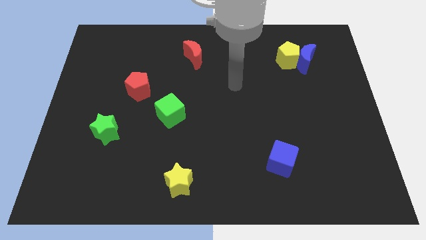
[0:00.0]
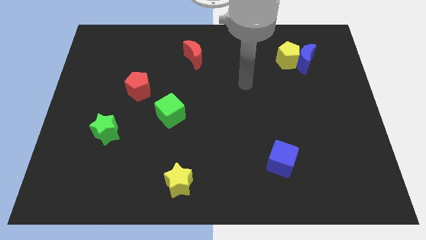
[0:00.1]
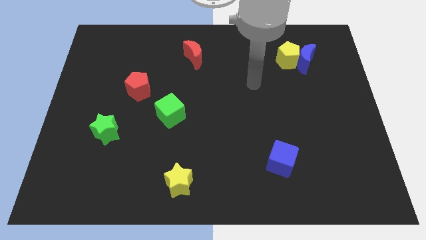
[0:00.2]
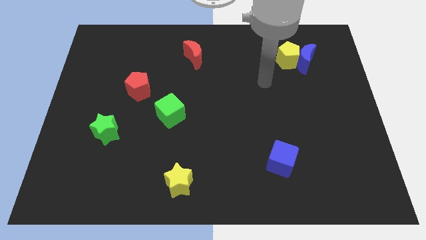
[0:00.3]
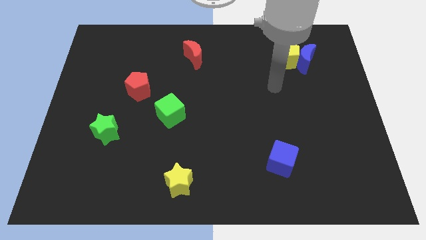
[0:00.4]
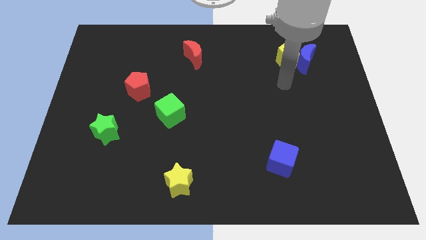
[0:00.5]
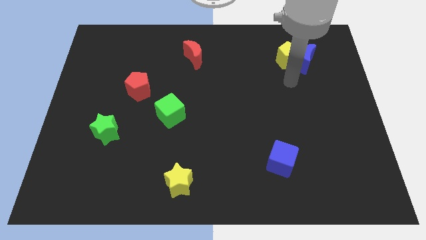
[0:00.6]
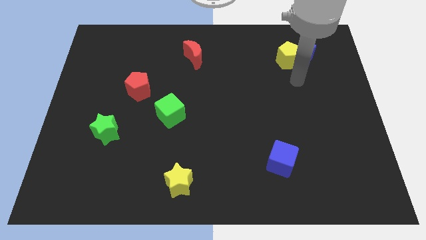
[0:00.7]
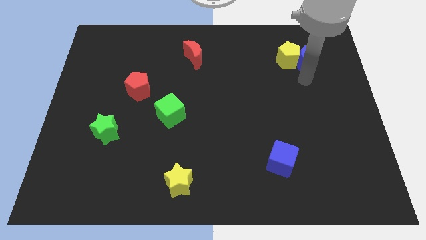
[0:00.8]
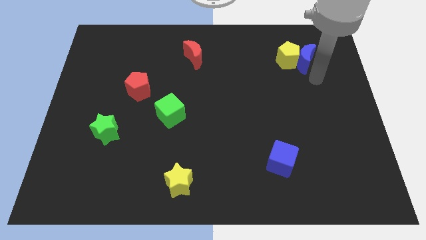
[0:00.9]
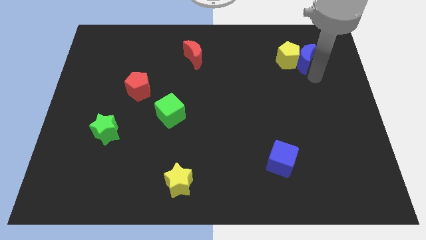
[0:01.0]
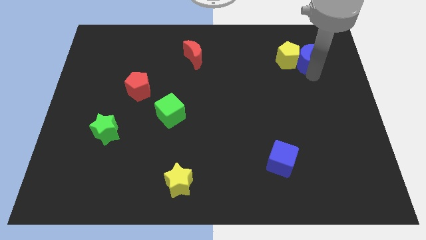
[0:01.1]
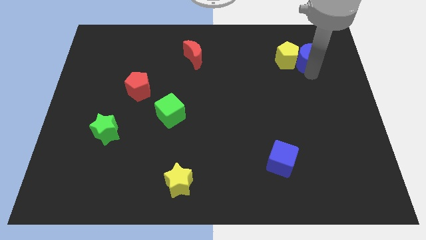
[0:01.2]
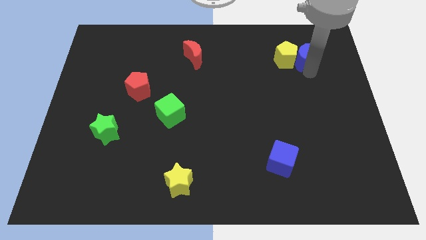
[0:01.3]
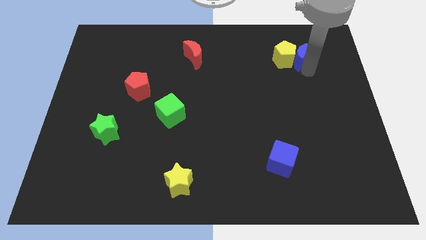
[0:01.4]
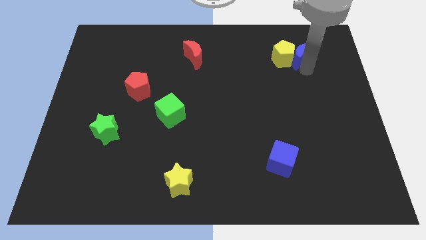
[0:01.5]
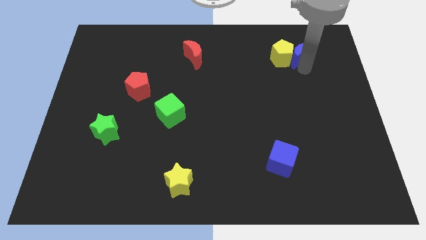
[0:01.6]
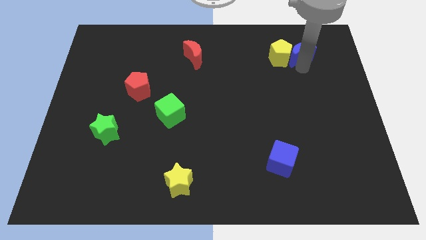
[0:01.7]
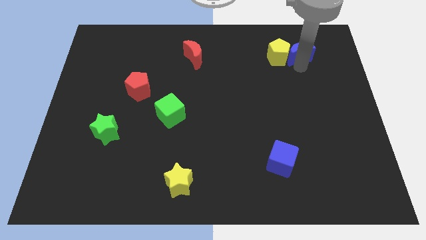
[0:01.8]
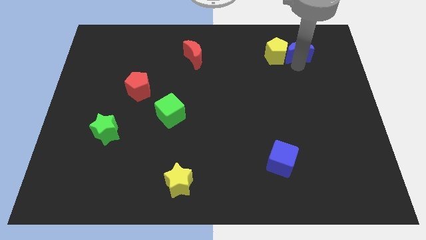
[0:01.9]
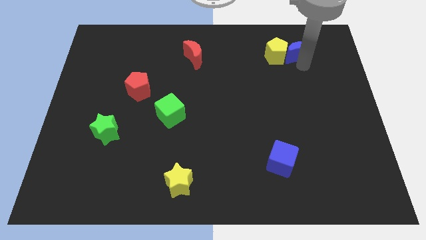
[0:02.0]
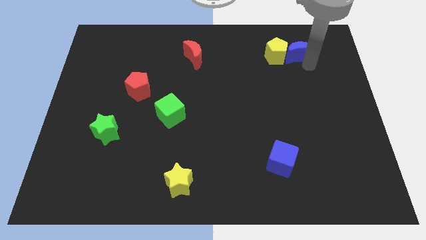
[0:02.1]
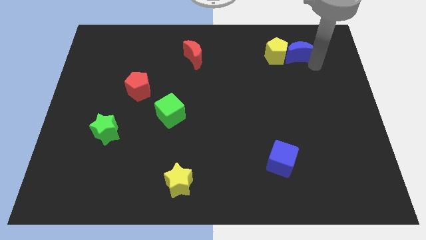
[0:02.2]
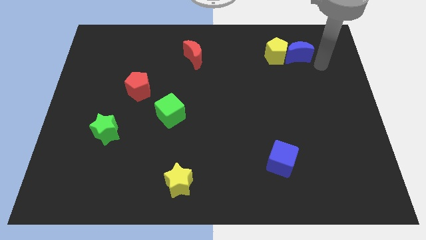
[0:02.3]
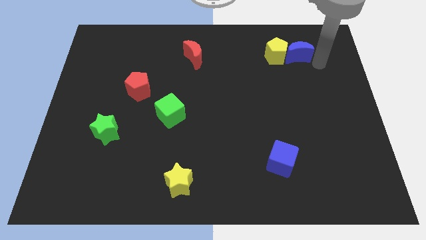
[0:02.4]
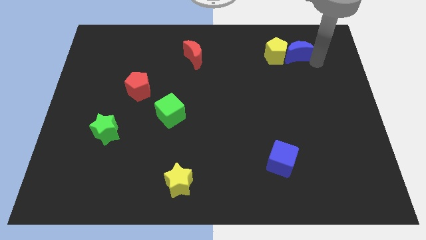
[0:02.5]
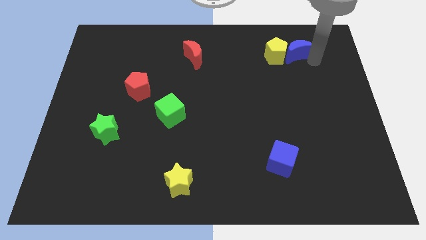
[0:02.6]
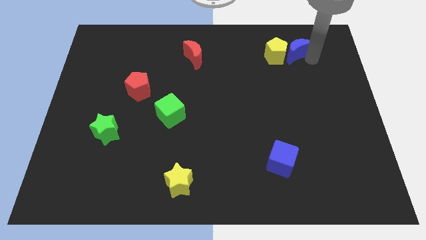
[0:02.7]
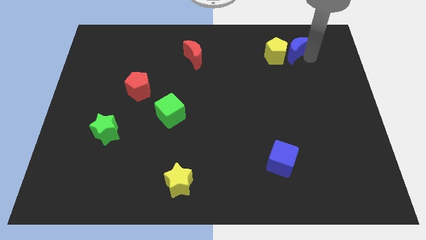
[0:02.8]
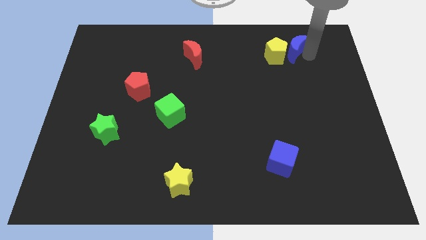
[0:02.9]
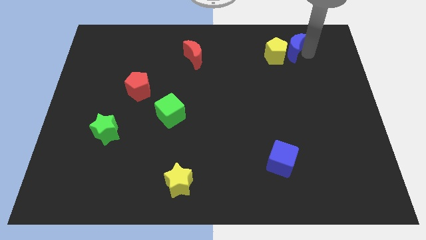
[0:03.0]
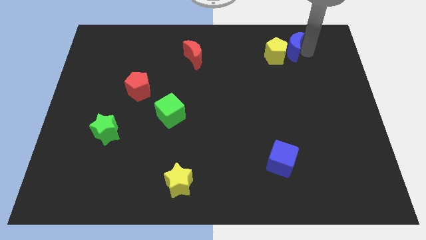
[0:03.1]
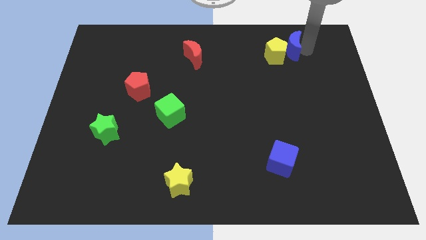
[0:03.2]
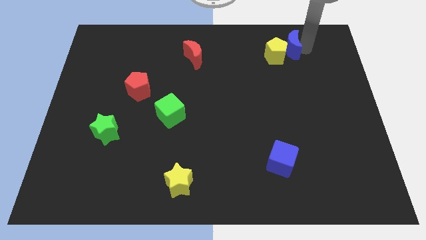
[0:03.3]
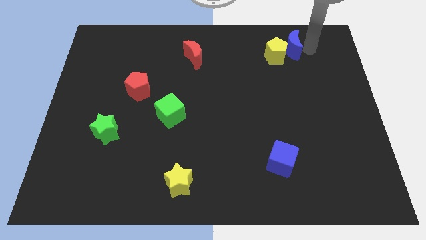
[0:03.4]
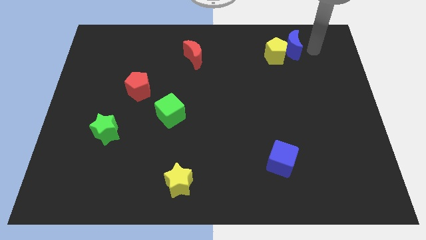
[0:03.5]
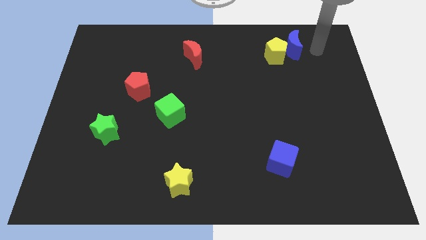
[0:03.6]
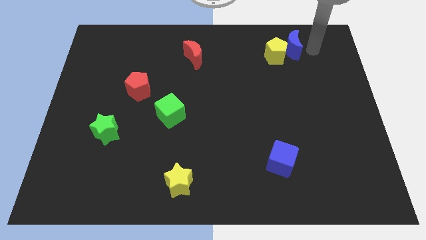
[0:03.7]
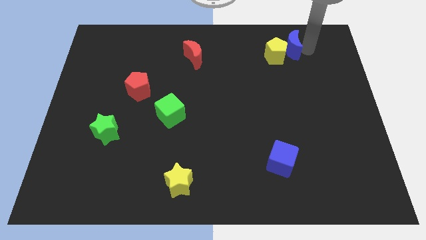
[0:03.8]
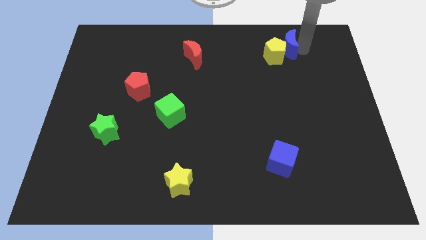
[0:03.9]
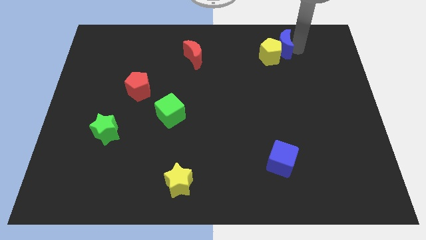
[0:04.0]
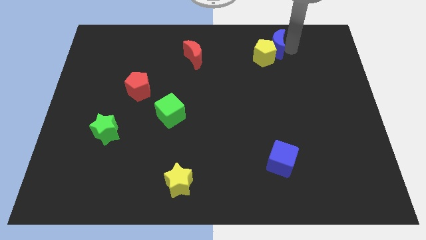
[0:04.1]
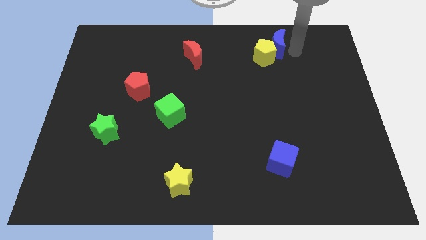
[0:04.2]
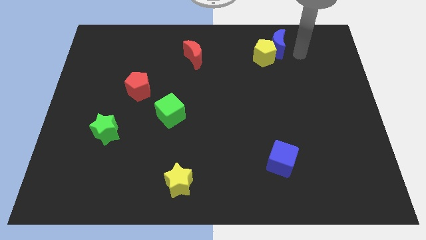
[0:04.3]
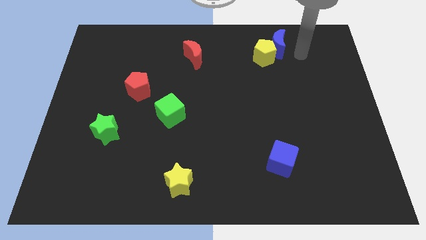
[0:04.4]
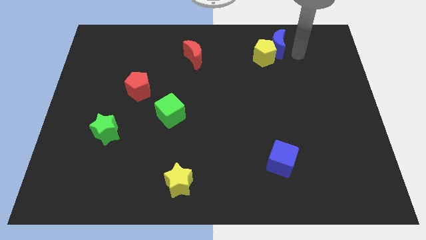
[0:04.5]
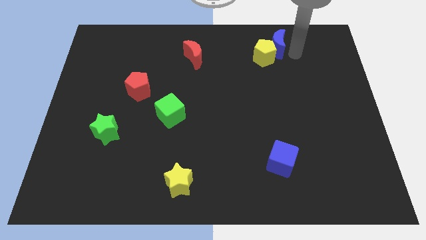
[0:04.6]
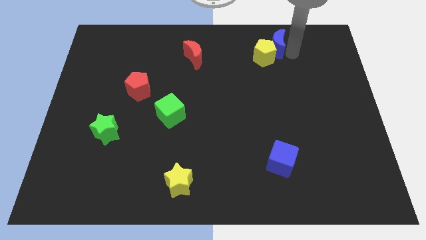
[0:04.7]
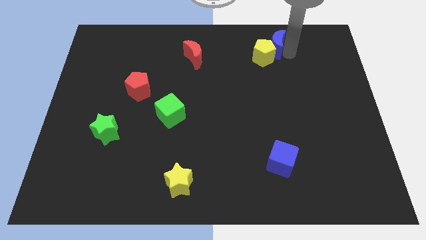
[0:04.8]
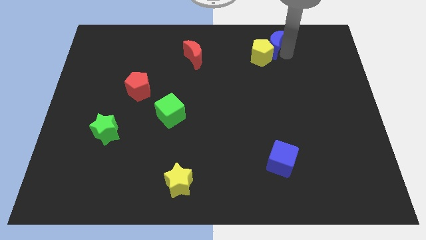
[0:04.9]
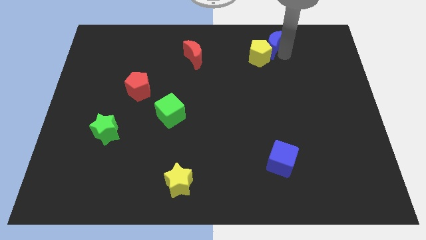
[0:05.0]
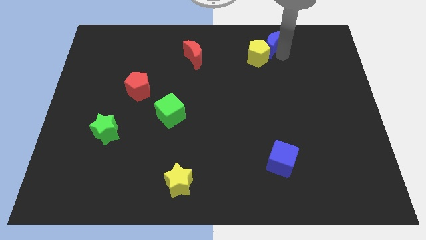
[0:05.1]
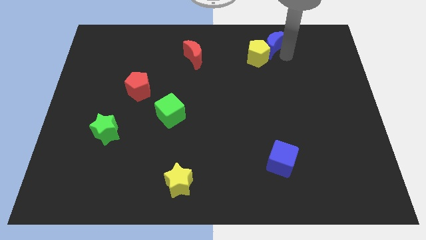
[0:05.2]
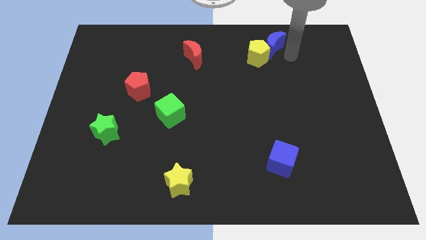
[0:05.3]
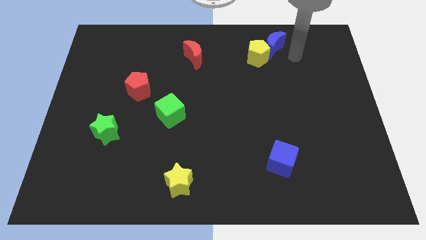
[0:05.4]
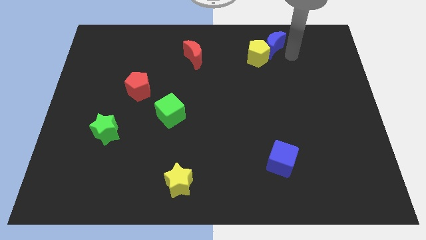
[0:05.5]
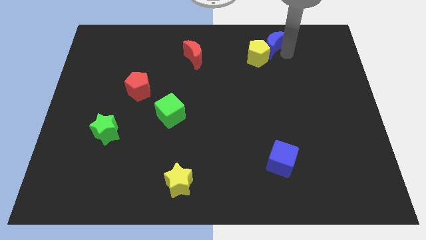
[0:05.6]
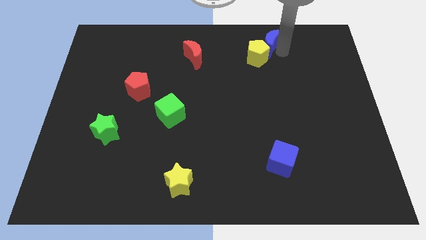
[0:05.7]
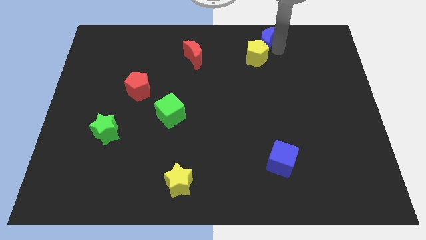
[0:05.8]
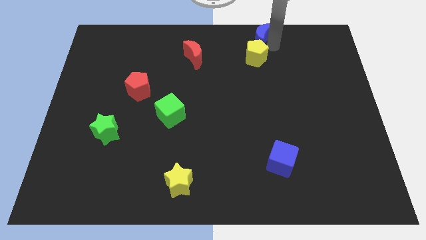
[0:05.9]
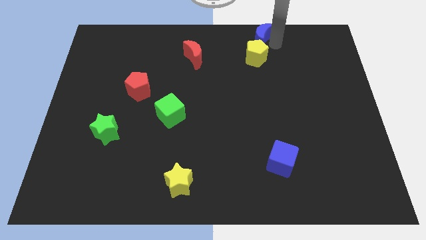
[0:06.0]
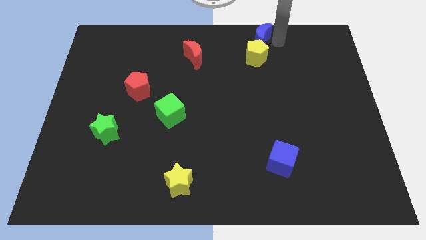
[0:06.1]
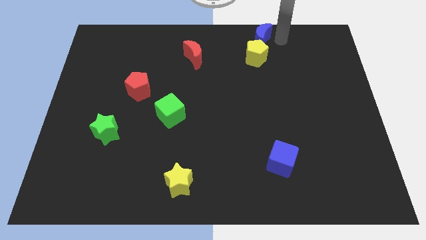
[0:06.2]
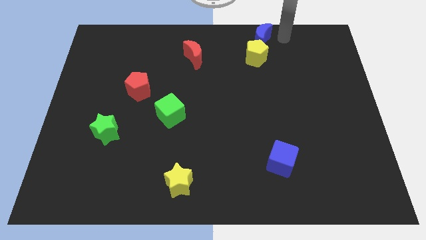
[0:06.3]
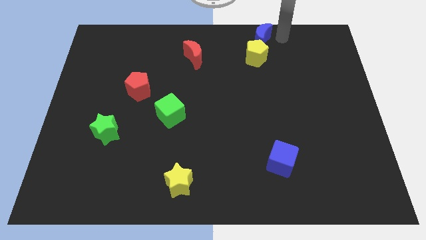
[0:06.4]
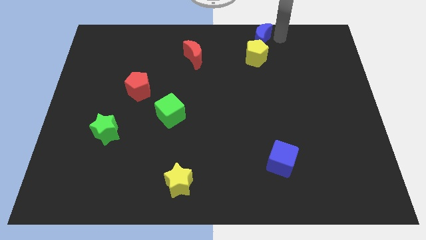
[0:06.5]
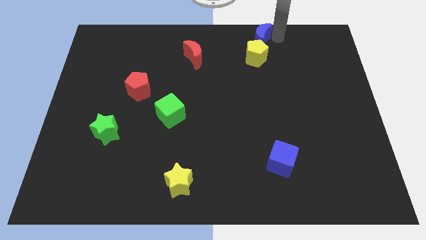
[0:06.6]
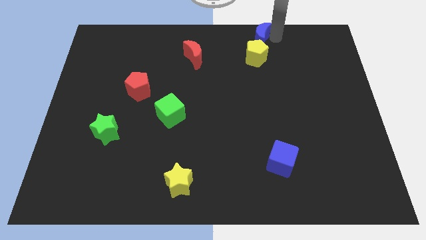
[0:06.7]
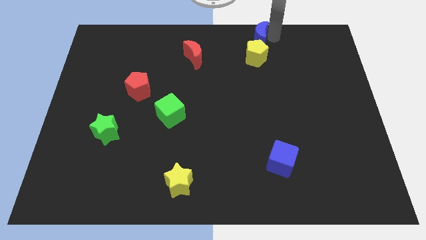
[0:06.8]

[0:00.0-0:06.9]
put the blue moon to the towards your base
